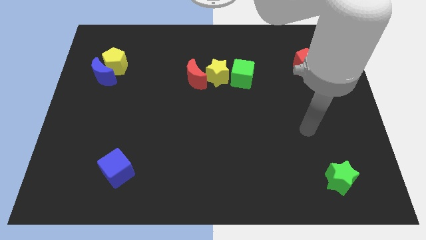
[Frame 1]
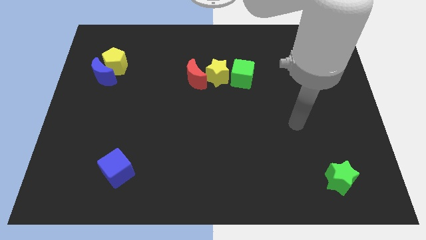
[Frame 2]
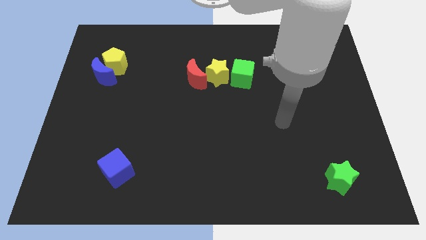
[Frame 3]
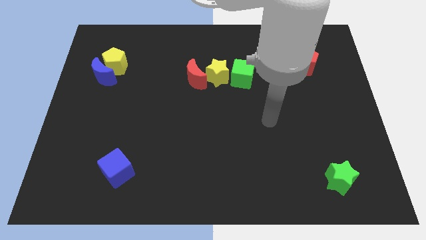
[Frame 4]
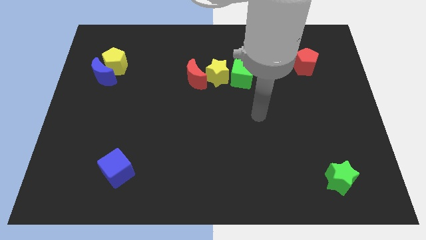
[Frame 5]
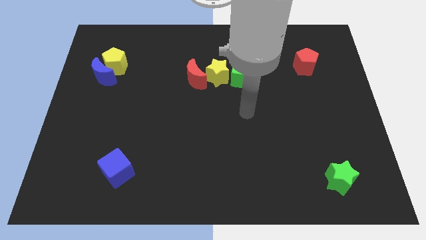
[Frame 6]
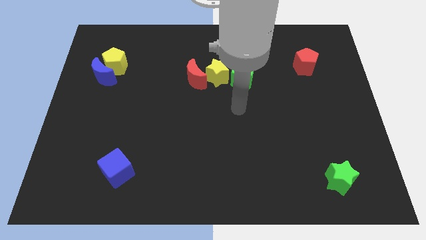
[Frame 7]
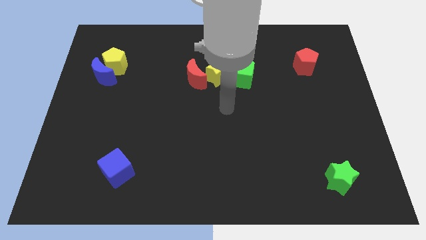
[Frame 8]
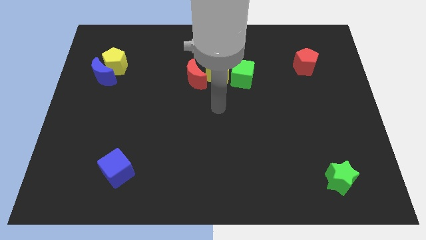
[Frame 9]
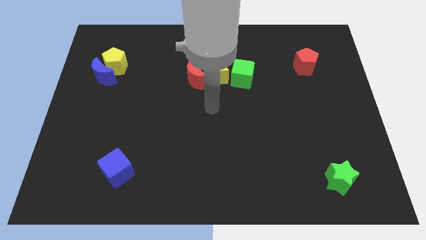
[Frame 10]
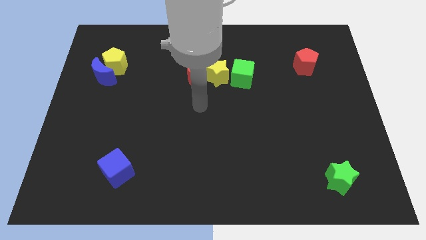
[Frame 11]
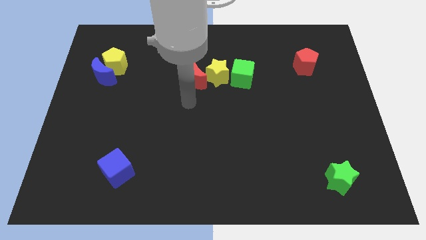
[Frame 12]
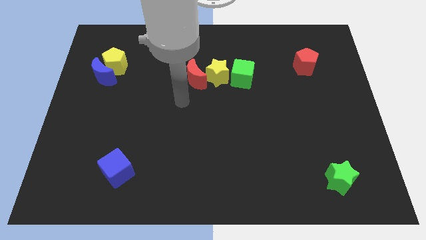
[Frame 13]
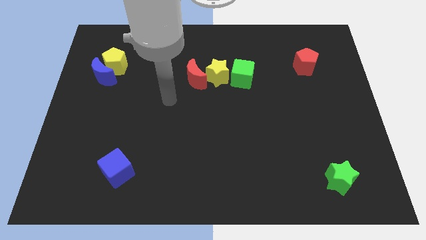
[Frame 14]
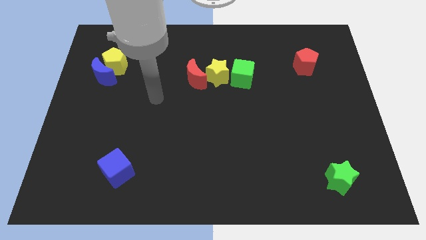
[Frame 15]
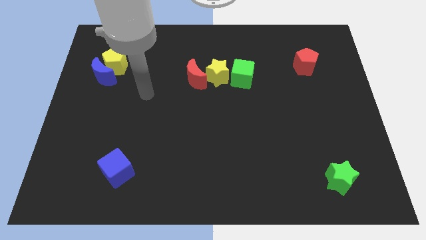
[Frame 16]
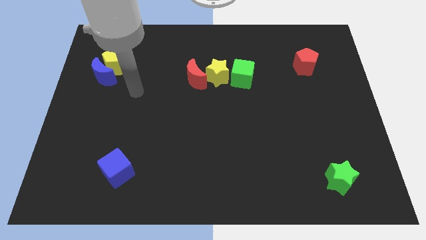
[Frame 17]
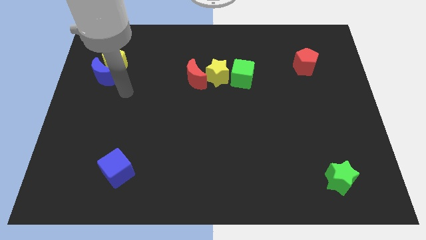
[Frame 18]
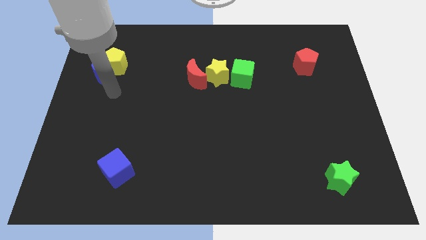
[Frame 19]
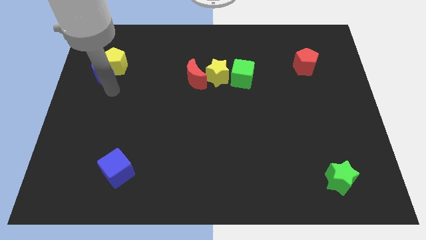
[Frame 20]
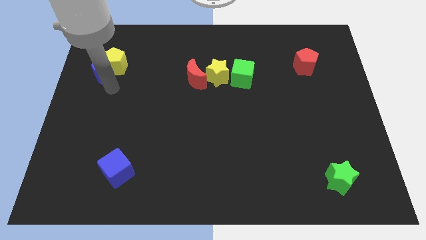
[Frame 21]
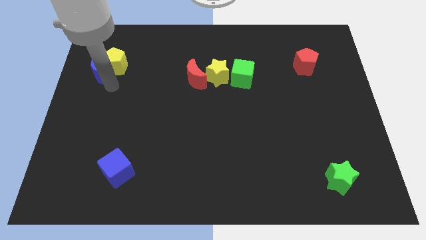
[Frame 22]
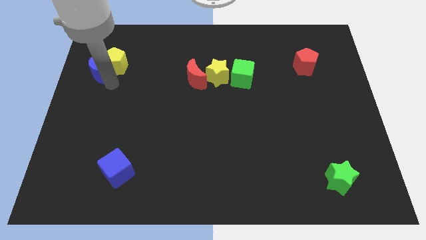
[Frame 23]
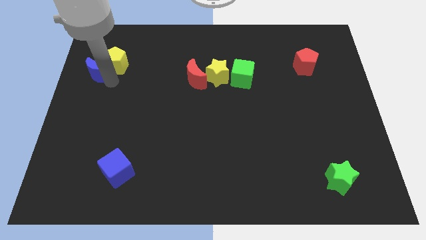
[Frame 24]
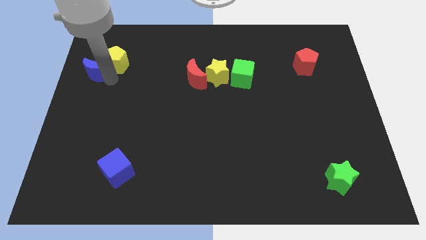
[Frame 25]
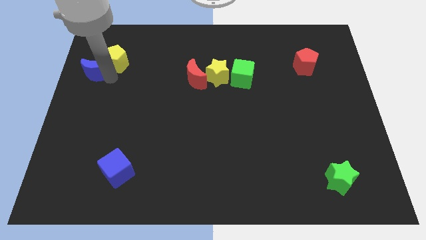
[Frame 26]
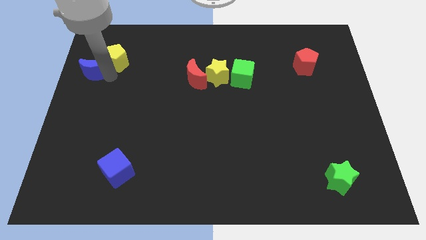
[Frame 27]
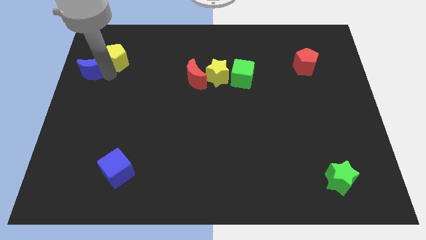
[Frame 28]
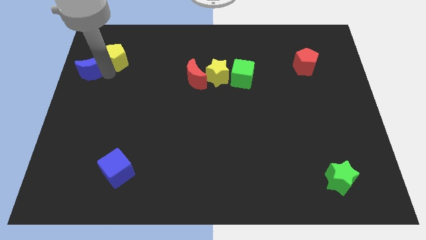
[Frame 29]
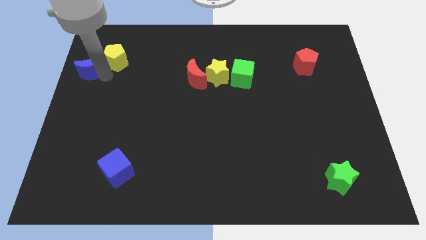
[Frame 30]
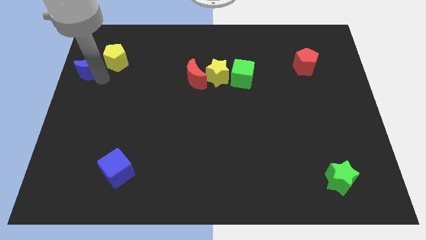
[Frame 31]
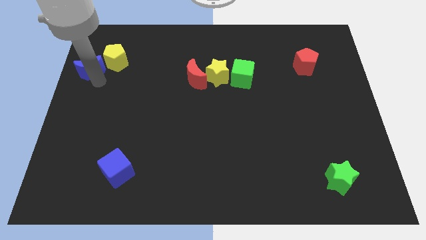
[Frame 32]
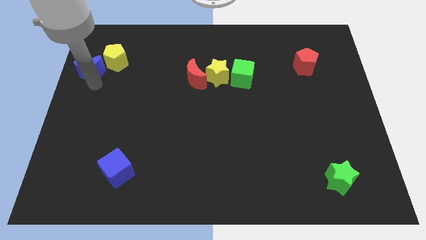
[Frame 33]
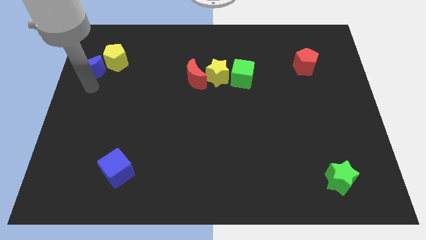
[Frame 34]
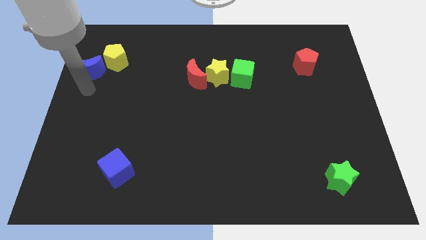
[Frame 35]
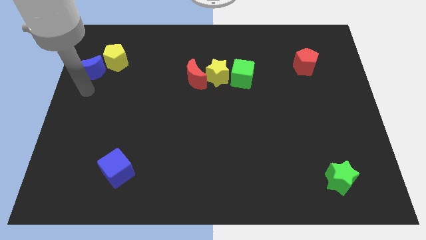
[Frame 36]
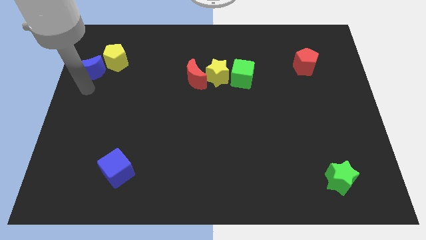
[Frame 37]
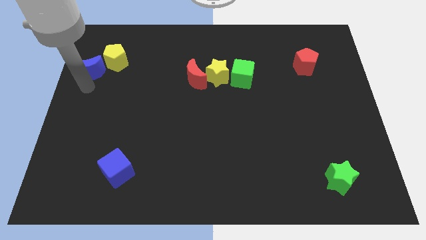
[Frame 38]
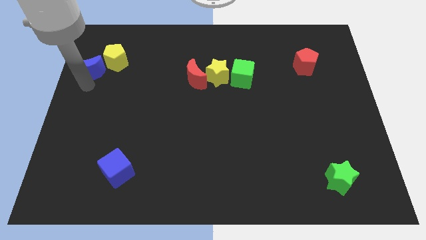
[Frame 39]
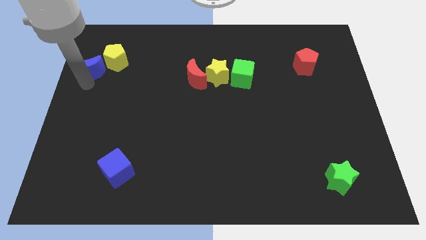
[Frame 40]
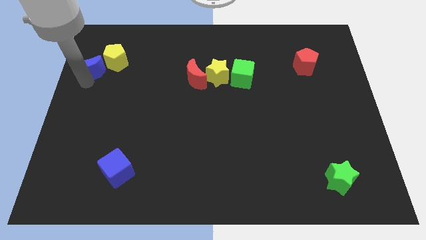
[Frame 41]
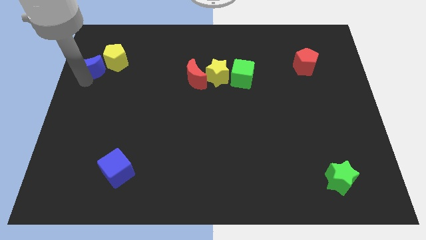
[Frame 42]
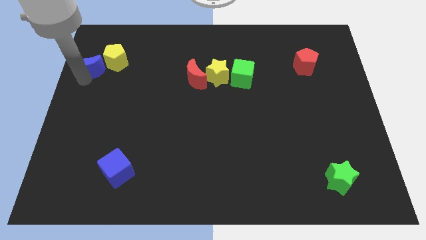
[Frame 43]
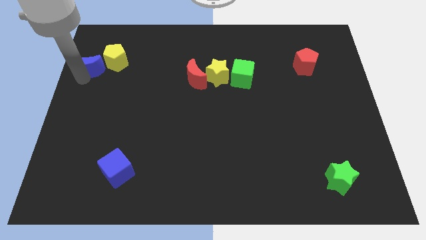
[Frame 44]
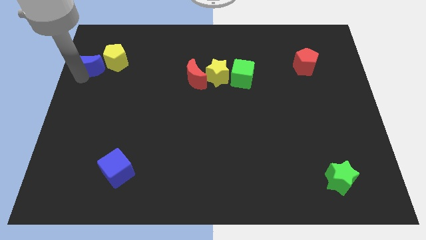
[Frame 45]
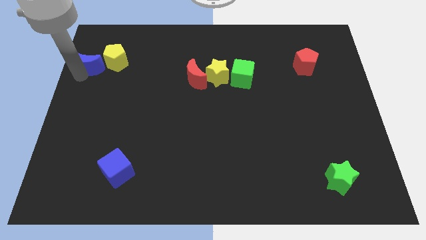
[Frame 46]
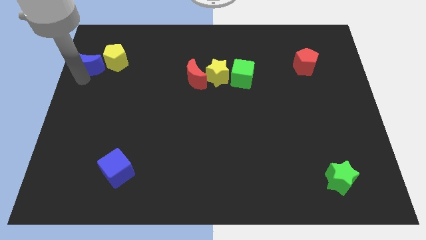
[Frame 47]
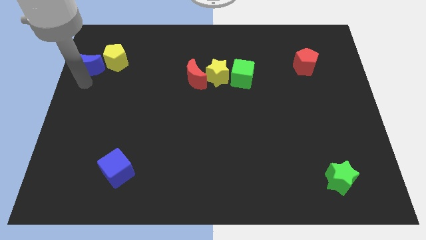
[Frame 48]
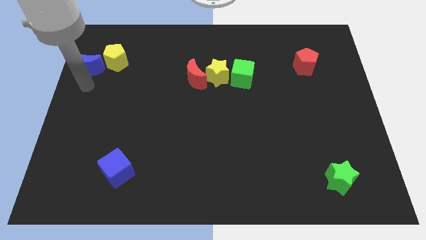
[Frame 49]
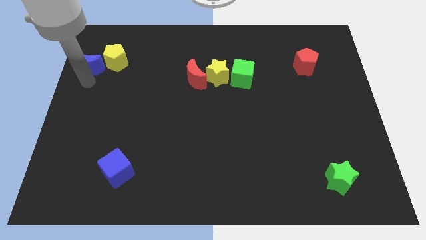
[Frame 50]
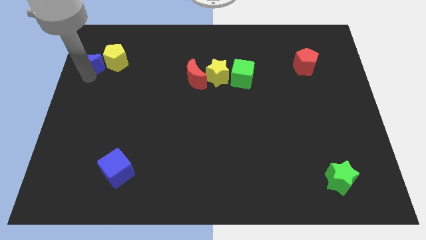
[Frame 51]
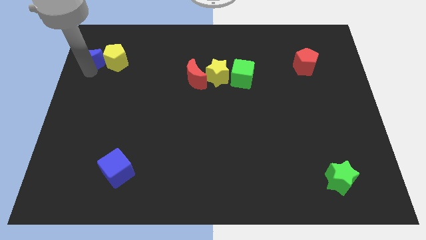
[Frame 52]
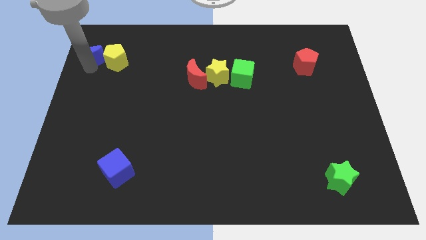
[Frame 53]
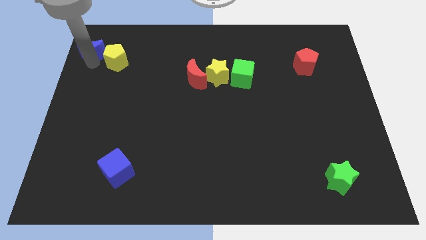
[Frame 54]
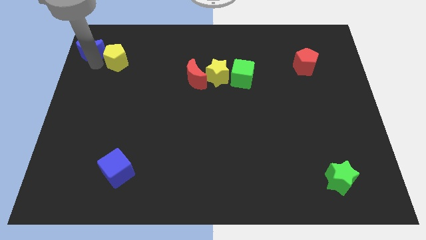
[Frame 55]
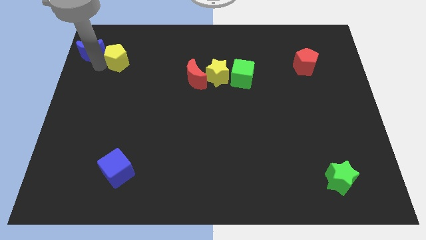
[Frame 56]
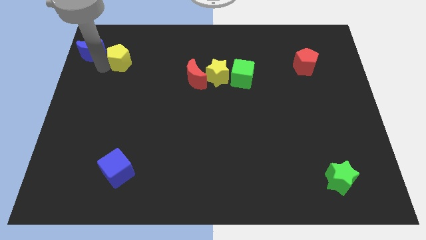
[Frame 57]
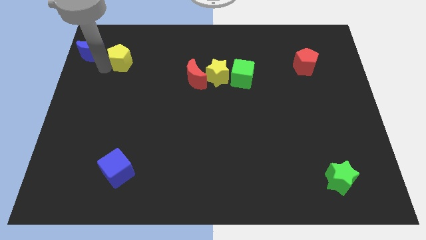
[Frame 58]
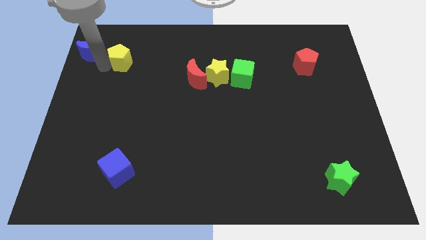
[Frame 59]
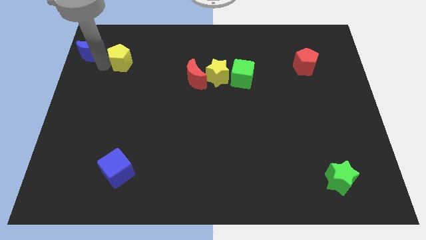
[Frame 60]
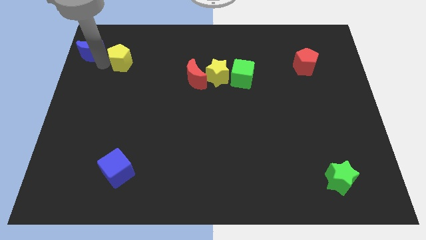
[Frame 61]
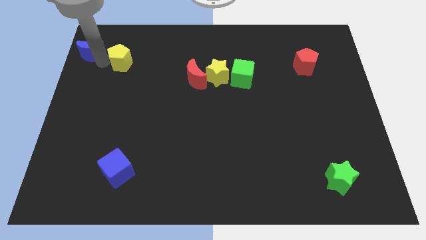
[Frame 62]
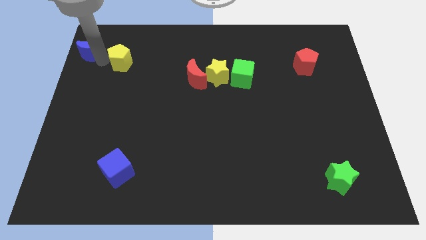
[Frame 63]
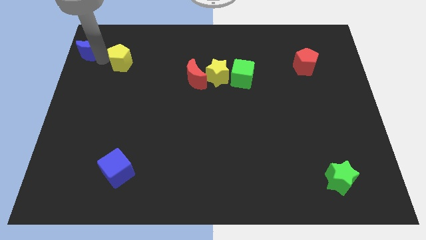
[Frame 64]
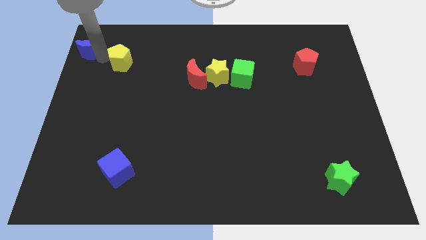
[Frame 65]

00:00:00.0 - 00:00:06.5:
put the blue moon to the top left
